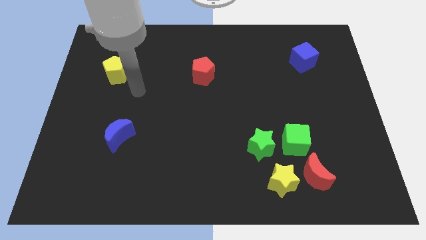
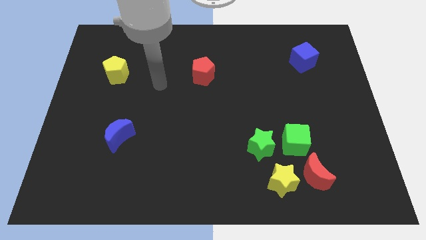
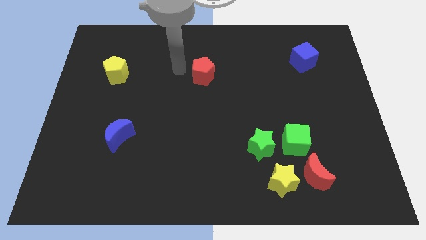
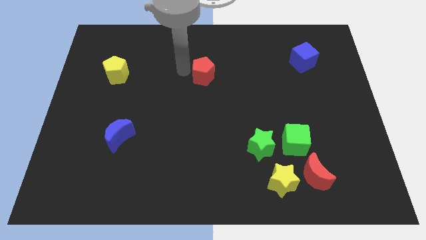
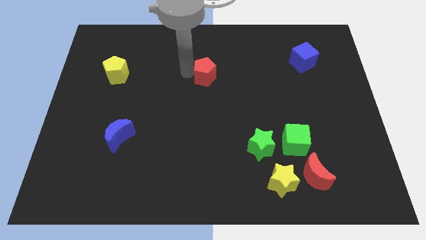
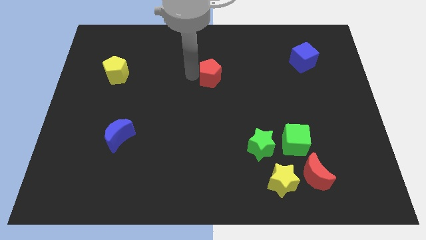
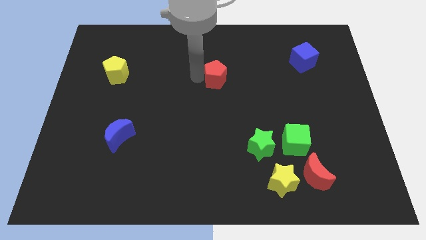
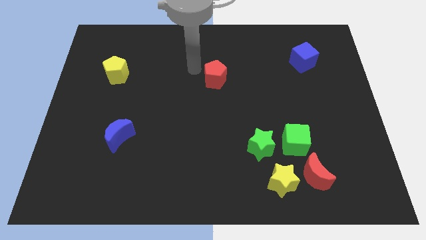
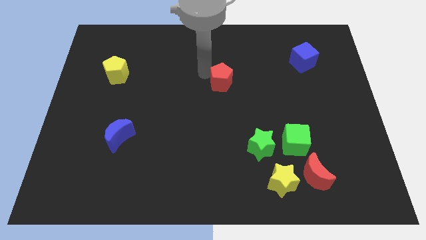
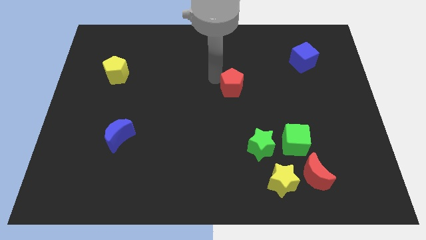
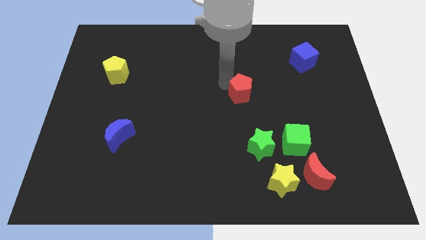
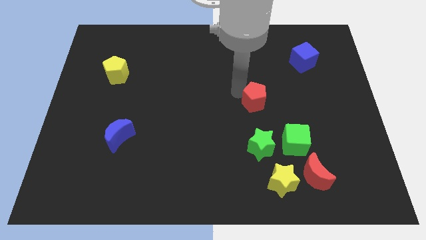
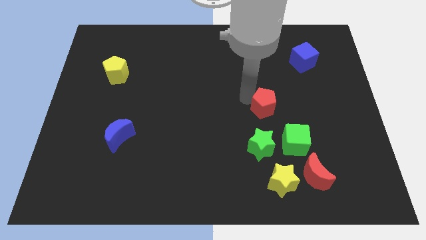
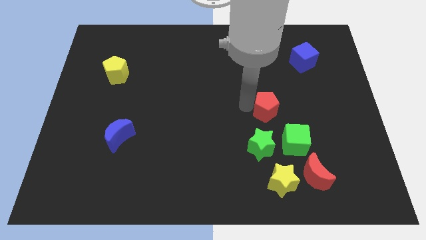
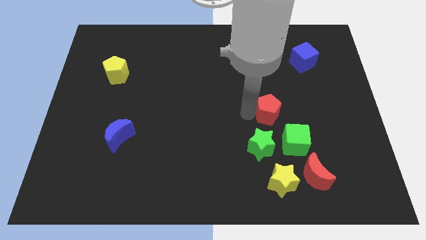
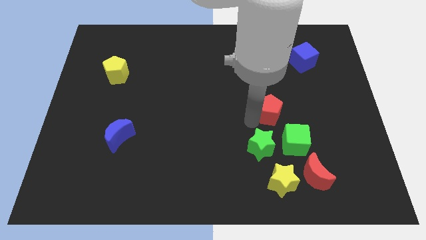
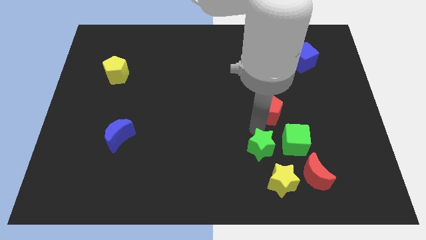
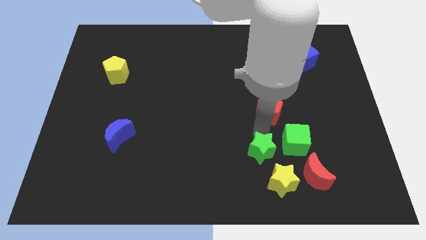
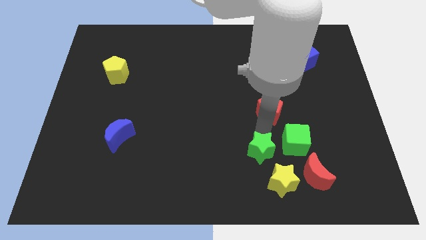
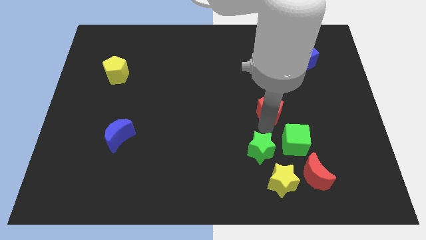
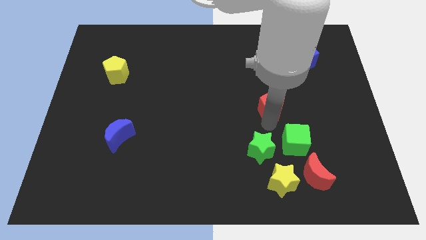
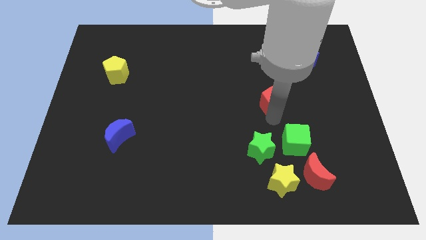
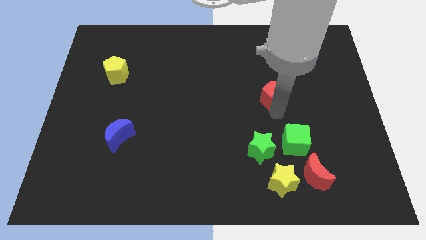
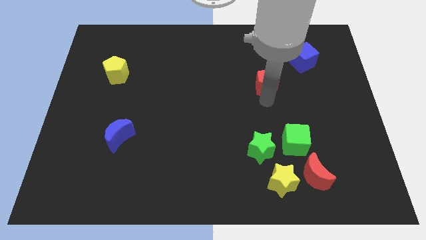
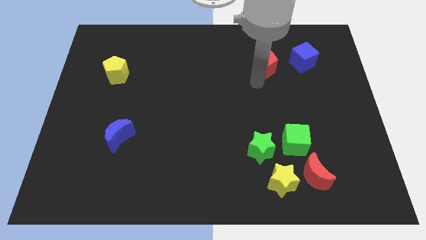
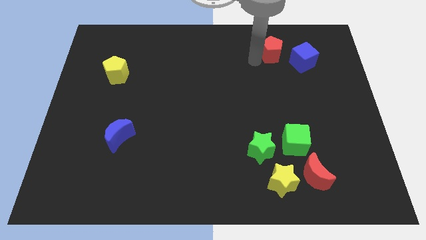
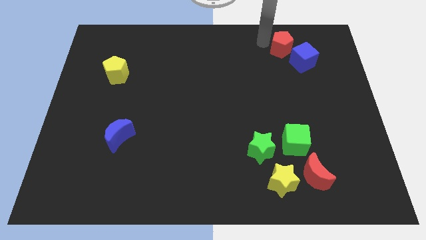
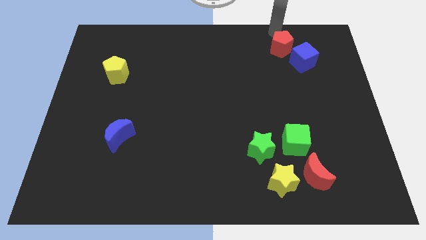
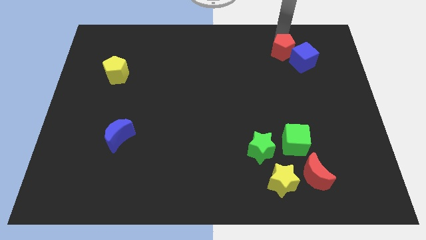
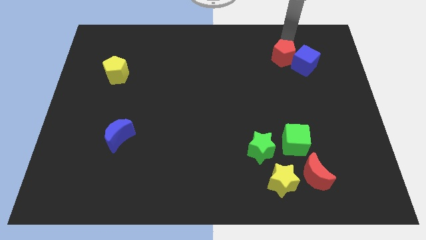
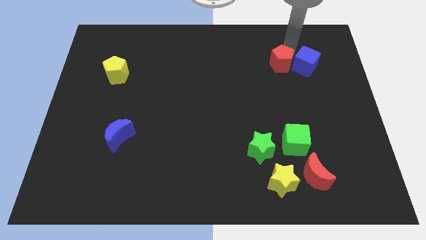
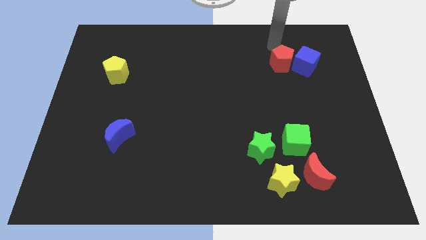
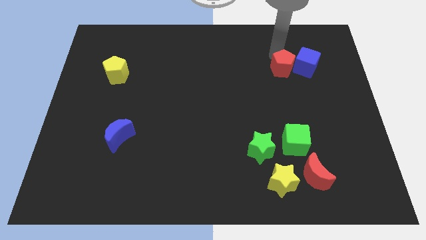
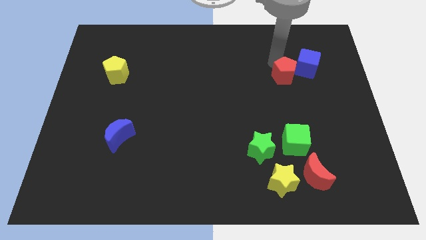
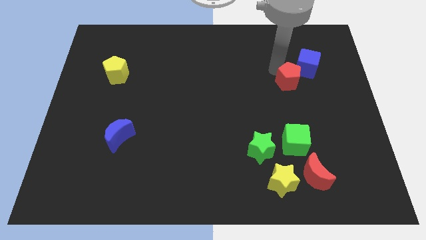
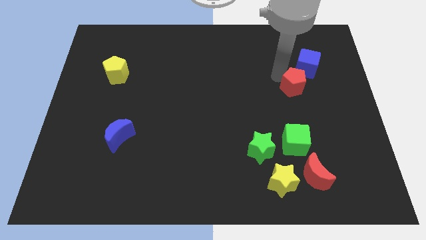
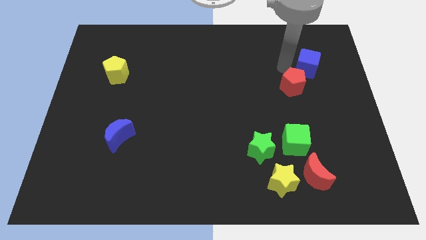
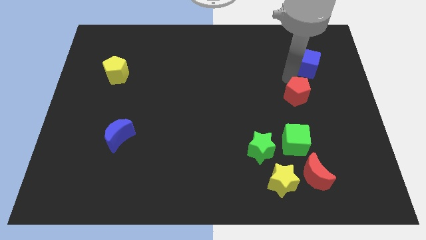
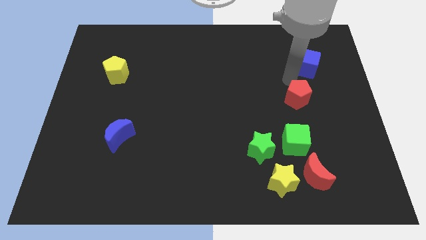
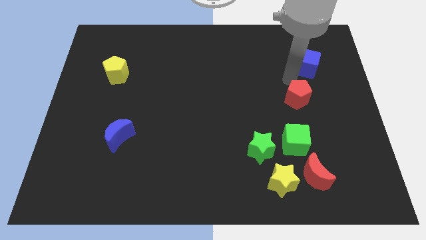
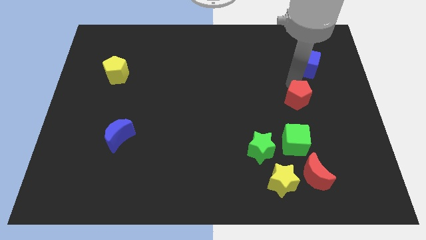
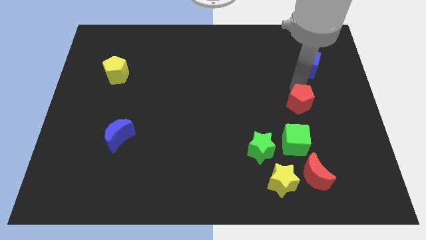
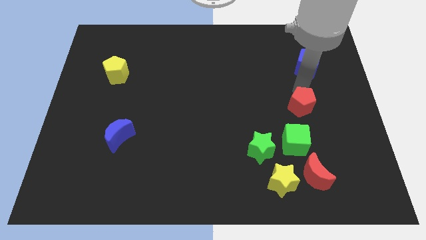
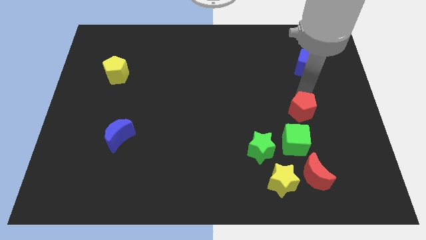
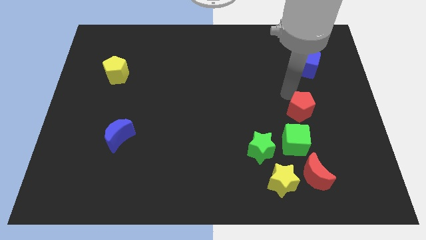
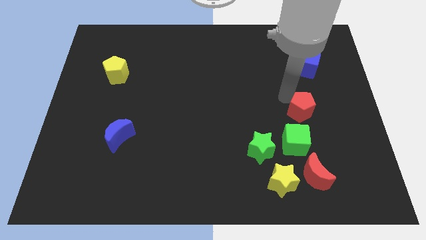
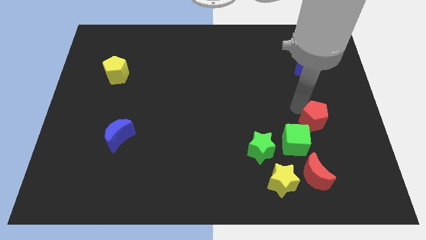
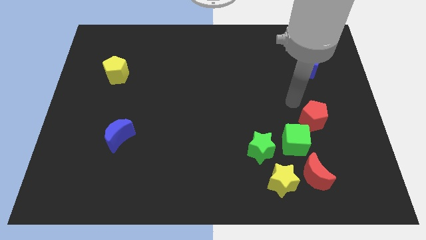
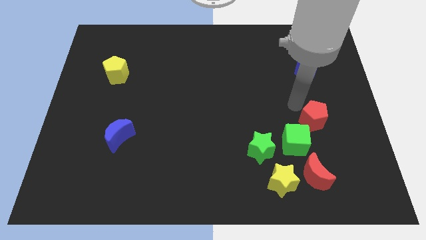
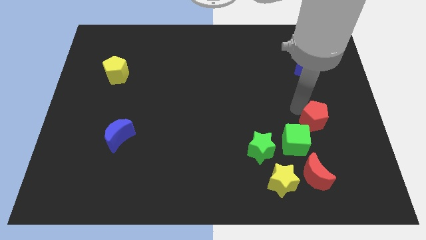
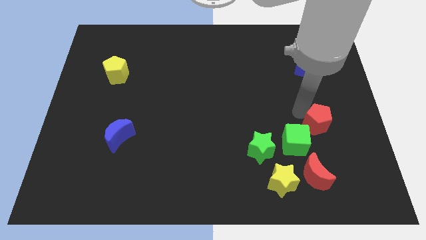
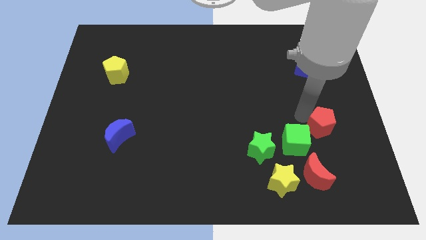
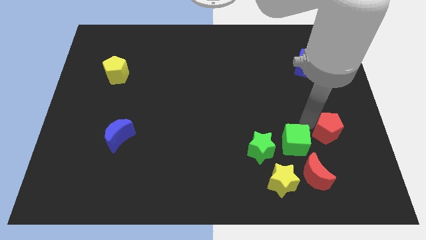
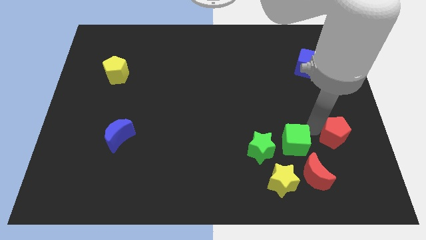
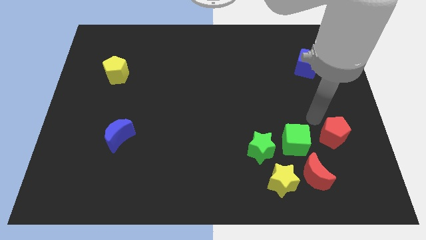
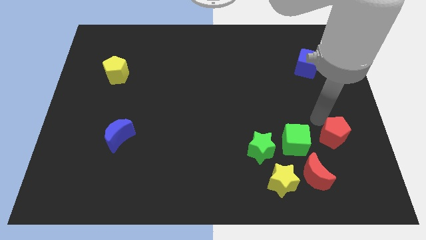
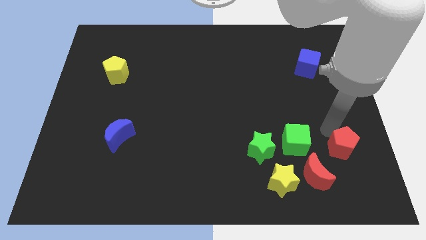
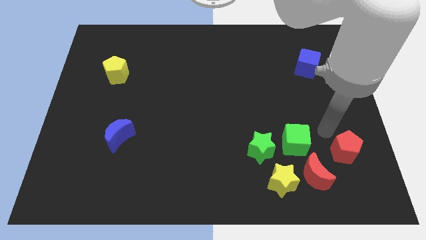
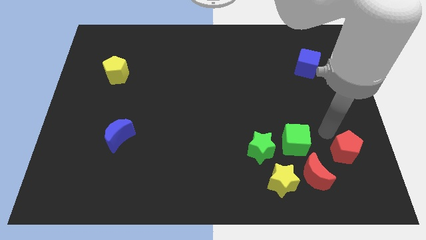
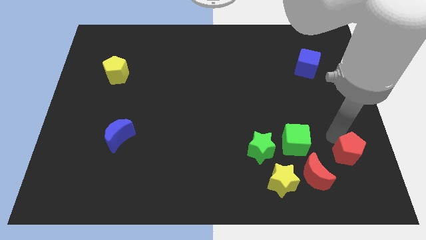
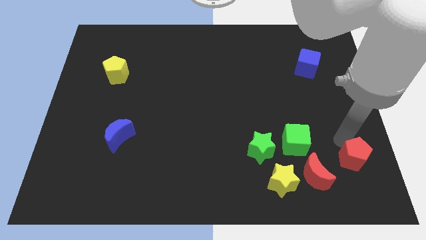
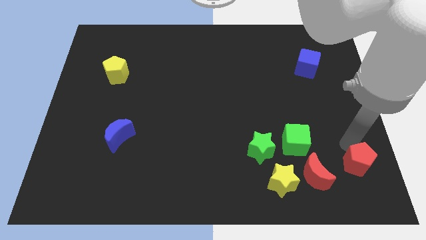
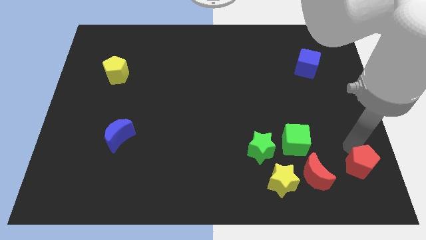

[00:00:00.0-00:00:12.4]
move the red pentagon to the bottom right corner

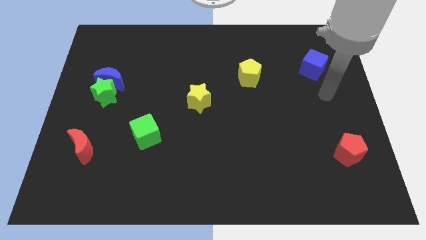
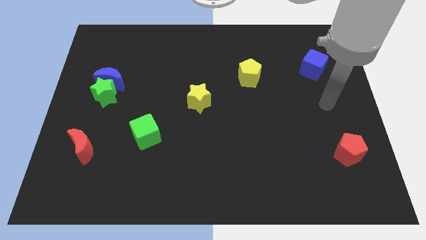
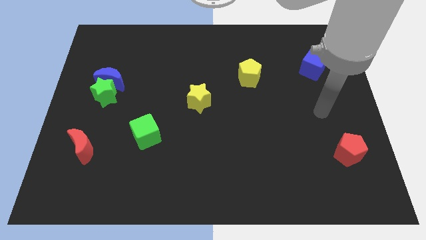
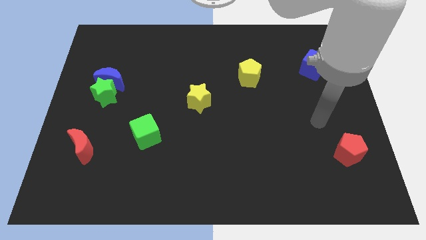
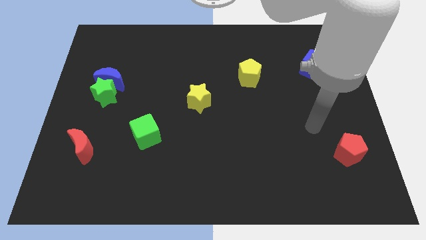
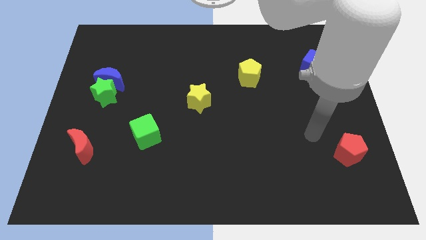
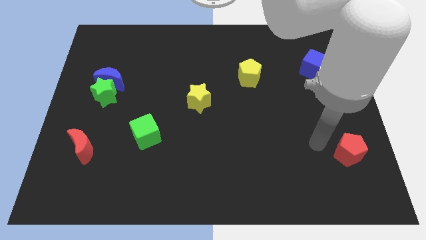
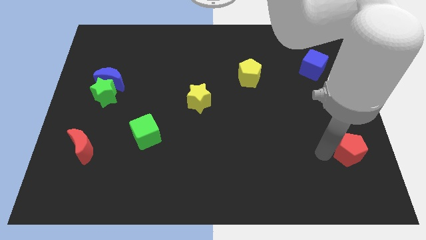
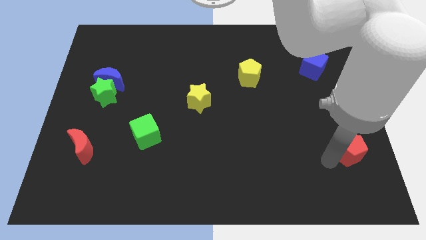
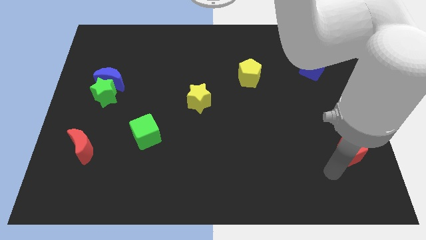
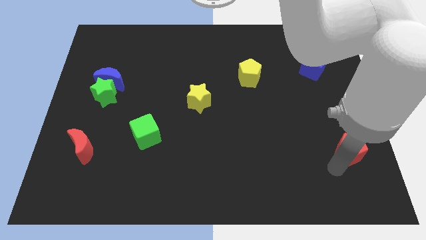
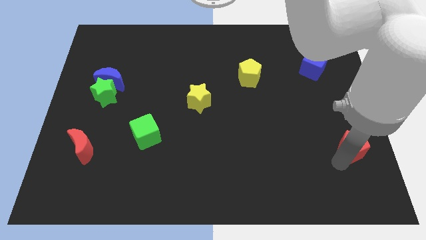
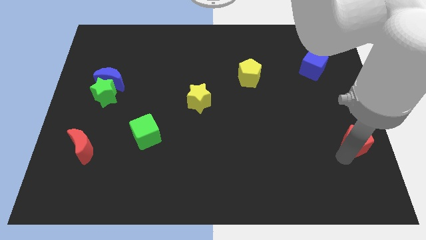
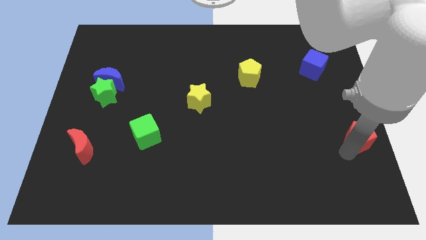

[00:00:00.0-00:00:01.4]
put the red pentagon to the right side of the board
